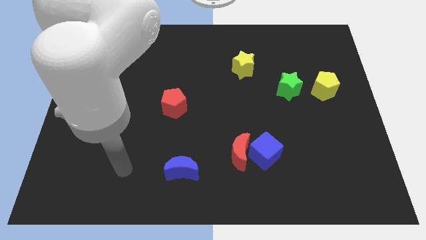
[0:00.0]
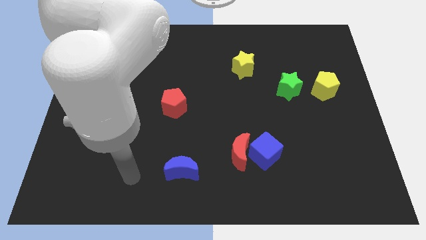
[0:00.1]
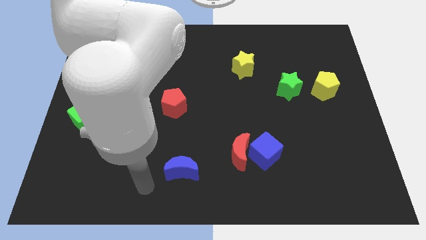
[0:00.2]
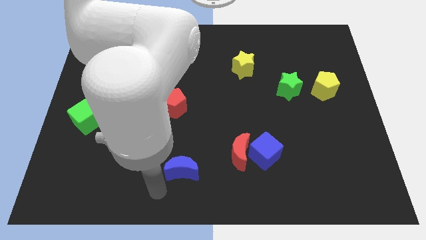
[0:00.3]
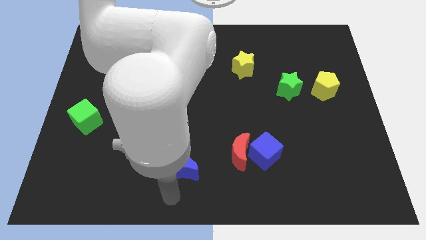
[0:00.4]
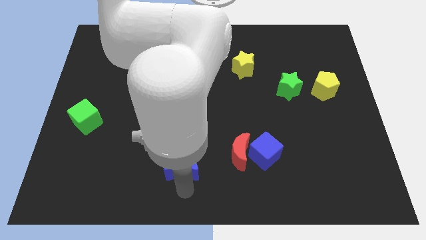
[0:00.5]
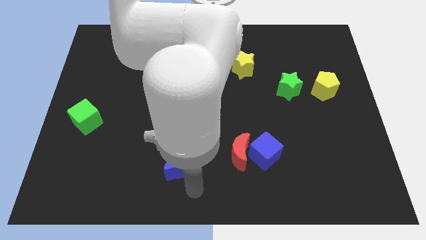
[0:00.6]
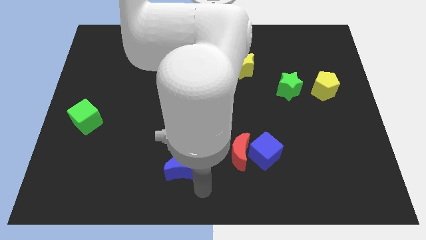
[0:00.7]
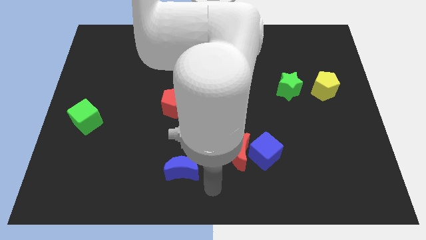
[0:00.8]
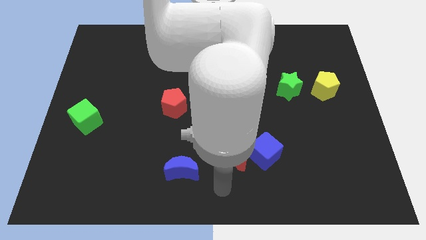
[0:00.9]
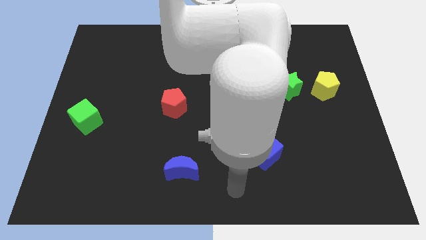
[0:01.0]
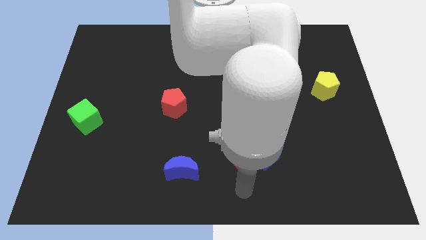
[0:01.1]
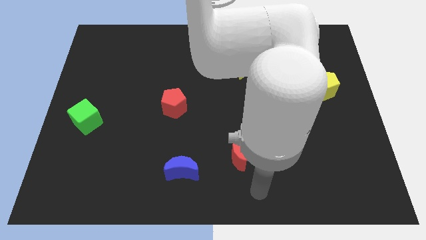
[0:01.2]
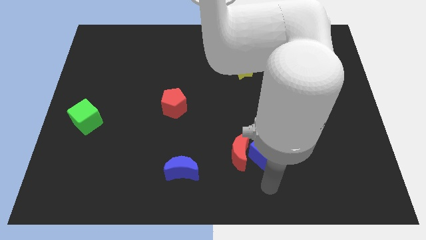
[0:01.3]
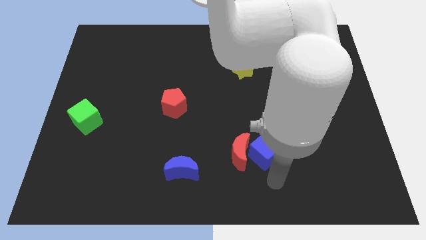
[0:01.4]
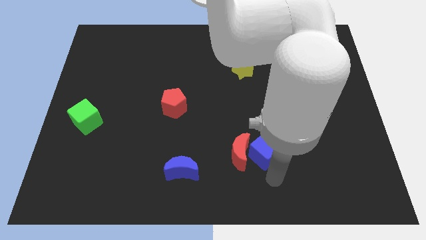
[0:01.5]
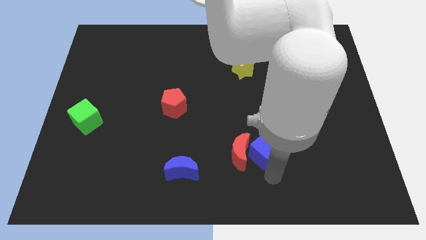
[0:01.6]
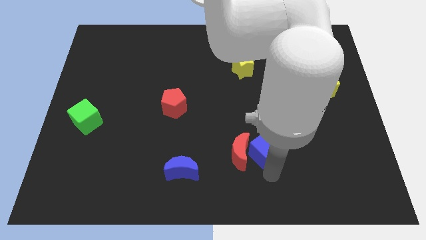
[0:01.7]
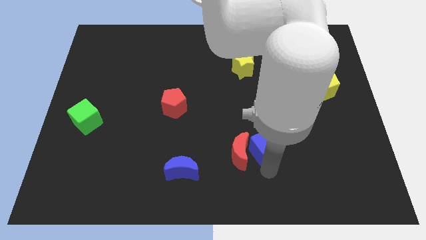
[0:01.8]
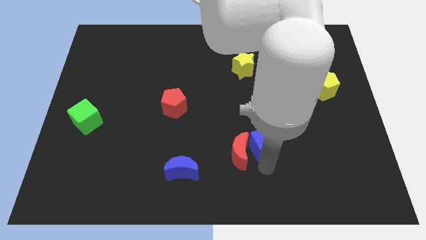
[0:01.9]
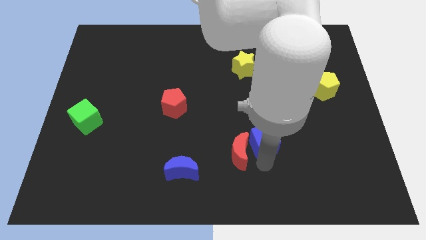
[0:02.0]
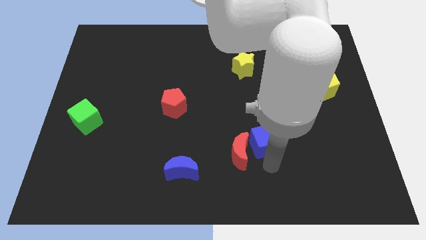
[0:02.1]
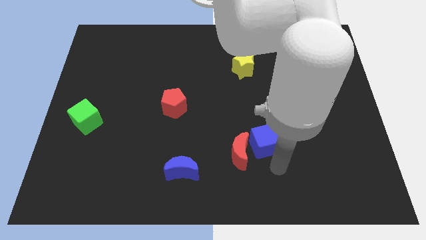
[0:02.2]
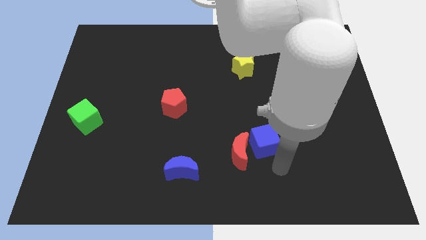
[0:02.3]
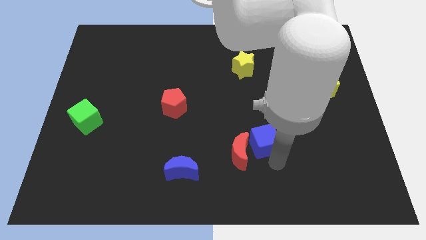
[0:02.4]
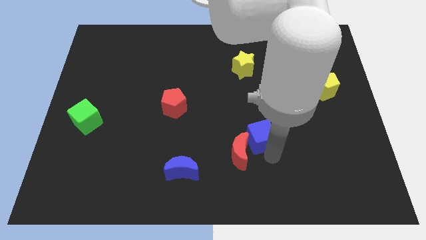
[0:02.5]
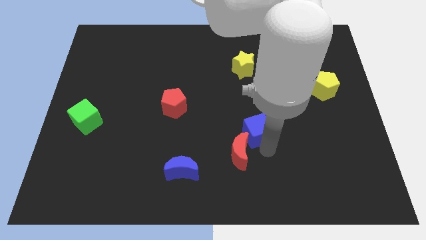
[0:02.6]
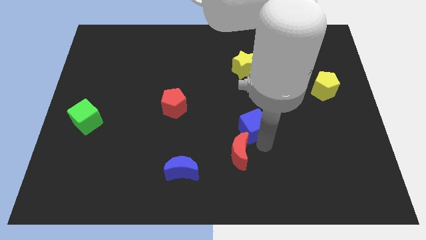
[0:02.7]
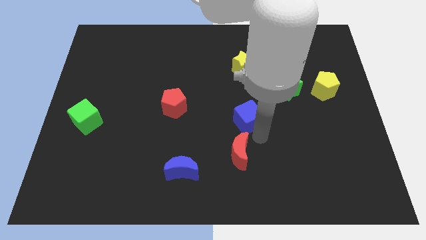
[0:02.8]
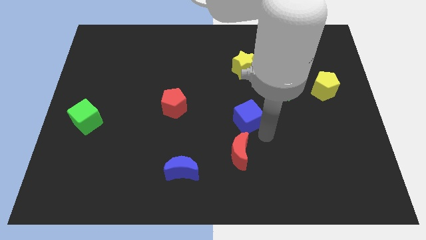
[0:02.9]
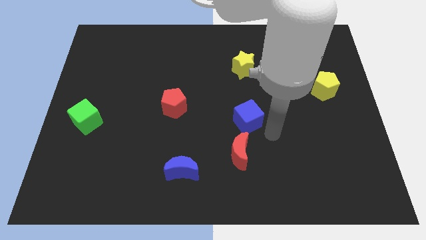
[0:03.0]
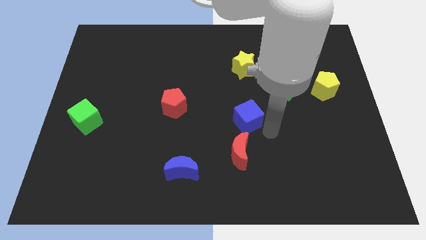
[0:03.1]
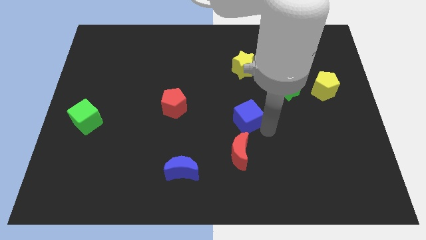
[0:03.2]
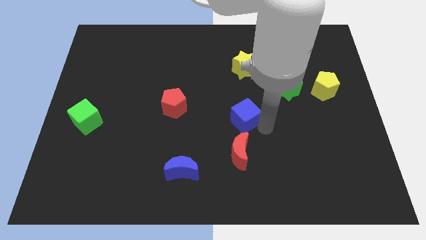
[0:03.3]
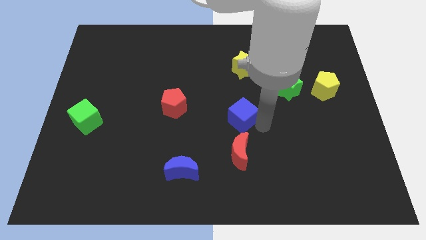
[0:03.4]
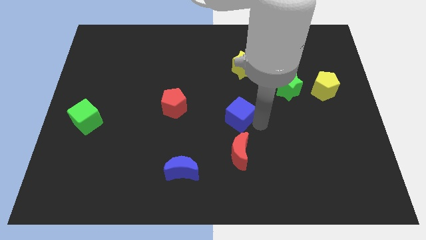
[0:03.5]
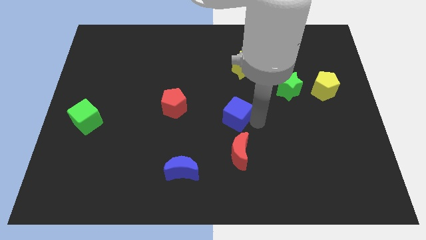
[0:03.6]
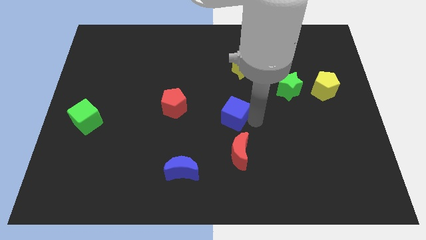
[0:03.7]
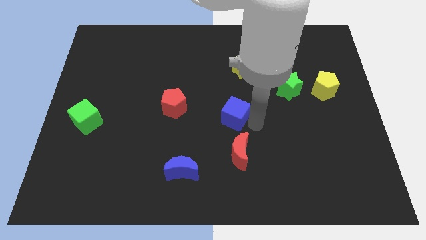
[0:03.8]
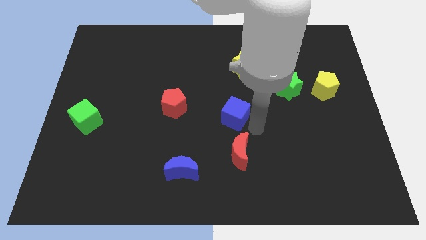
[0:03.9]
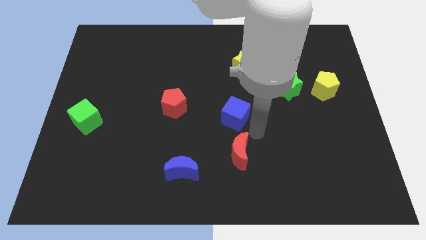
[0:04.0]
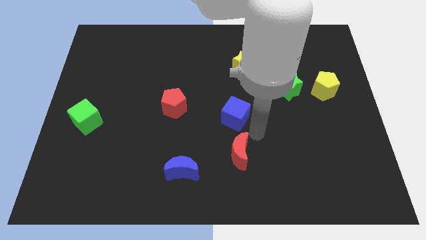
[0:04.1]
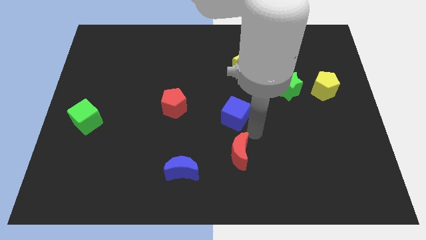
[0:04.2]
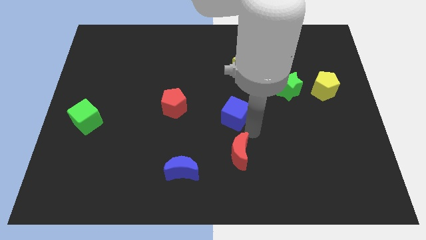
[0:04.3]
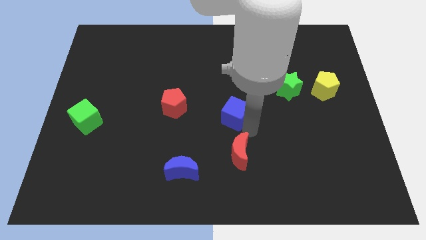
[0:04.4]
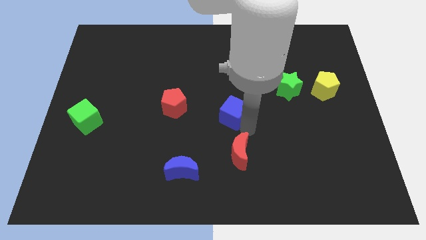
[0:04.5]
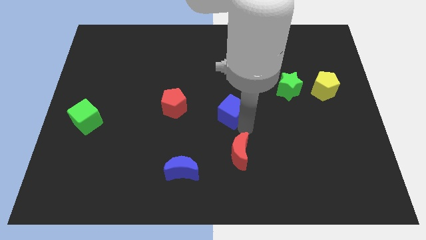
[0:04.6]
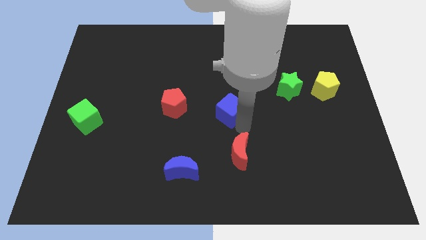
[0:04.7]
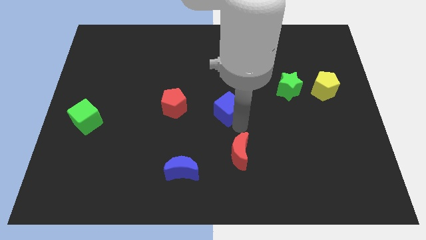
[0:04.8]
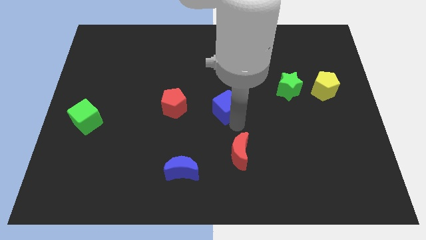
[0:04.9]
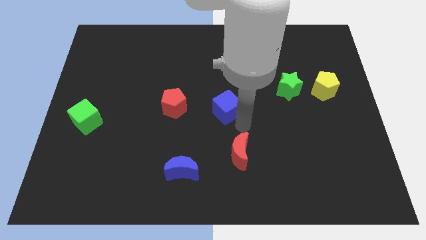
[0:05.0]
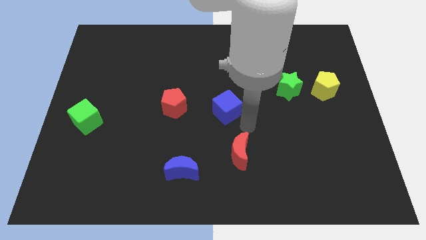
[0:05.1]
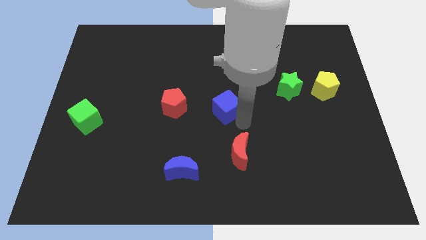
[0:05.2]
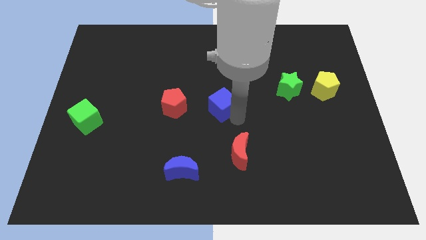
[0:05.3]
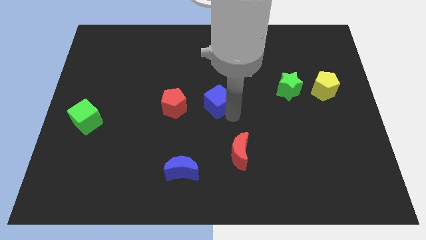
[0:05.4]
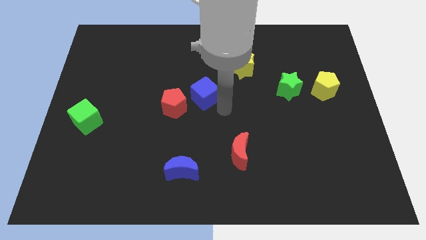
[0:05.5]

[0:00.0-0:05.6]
push the blue cube up and to the left

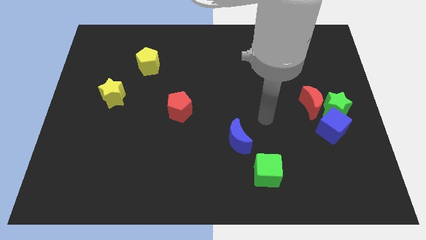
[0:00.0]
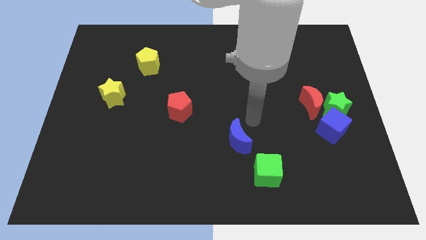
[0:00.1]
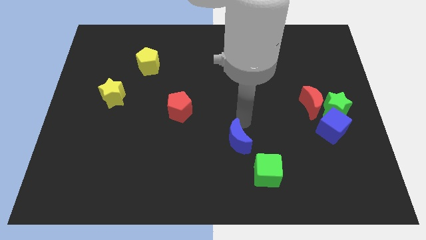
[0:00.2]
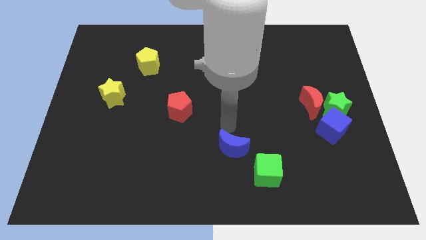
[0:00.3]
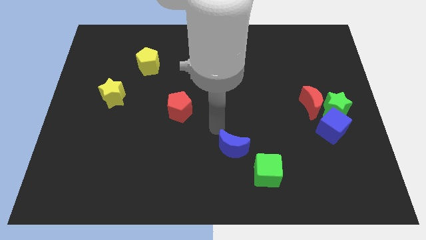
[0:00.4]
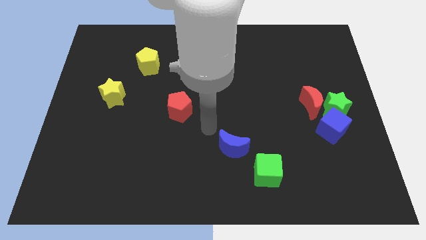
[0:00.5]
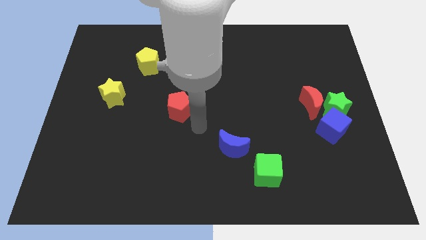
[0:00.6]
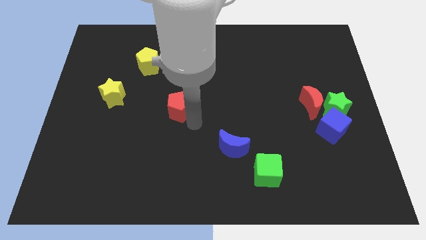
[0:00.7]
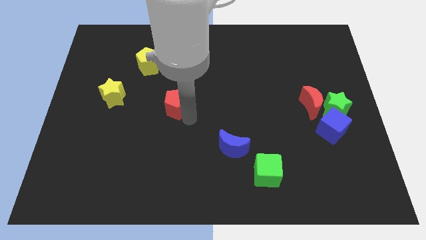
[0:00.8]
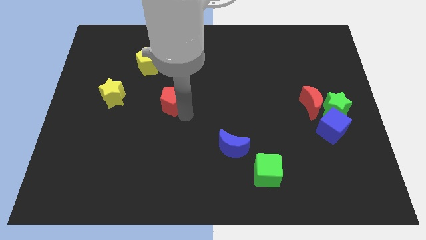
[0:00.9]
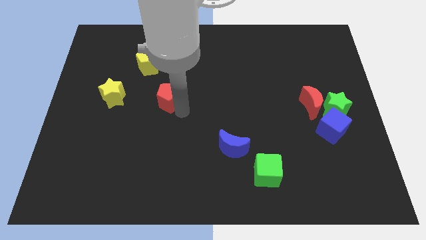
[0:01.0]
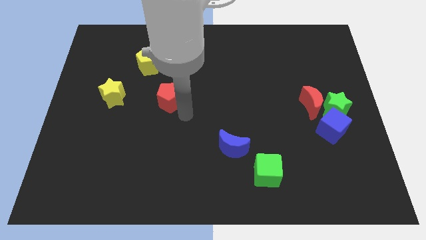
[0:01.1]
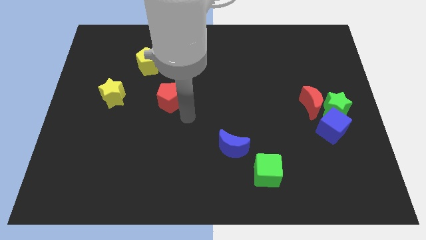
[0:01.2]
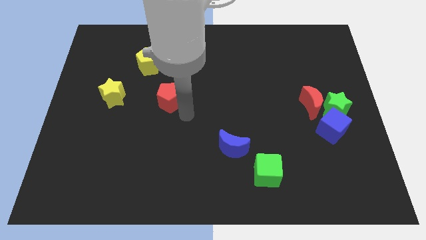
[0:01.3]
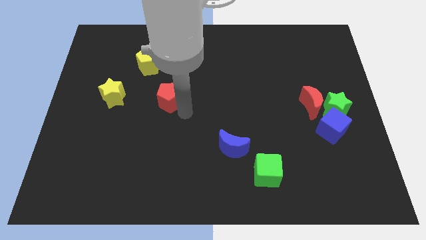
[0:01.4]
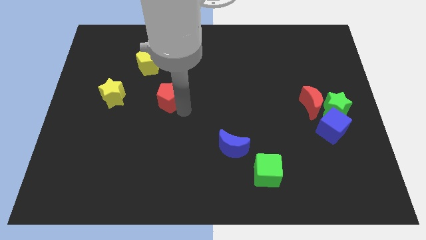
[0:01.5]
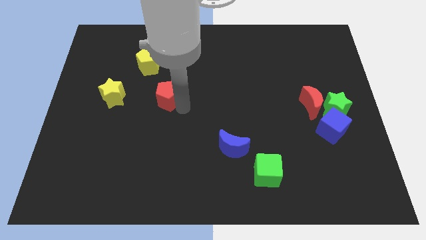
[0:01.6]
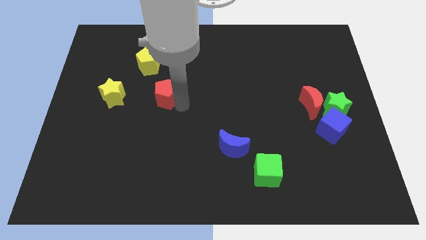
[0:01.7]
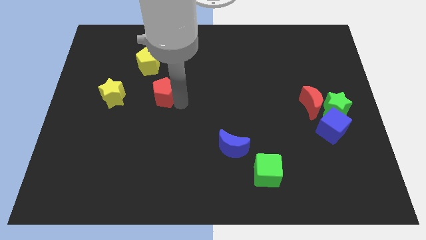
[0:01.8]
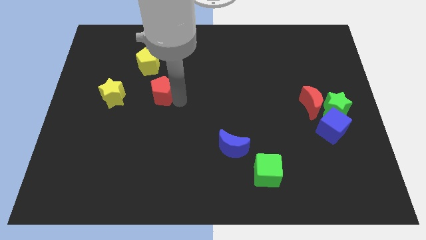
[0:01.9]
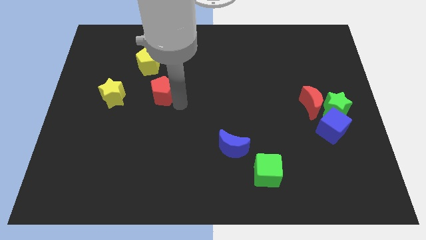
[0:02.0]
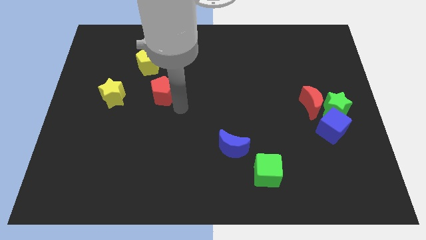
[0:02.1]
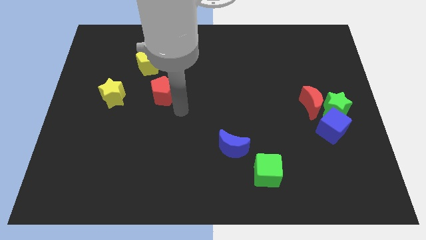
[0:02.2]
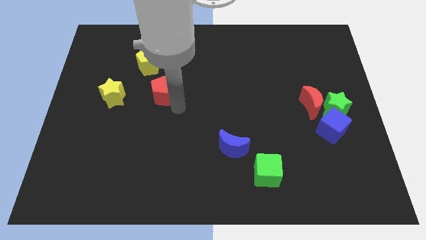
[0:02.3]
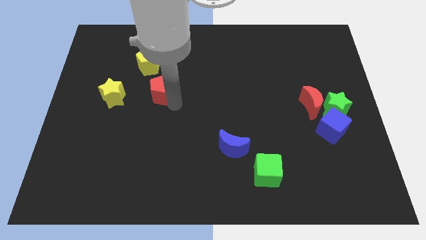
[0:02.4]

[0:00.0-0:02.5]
slightly move the red pentagon diagonally up and to the left

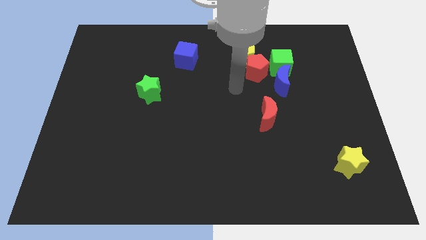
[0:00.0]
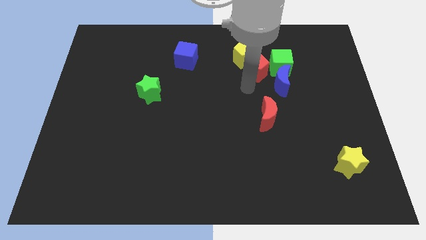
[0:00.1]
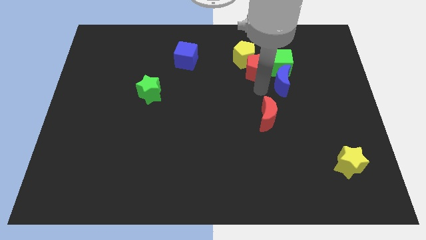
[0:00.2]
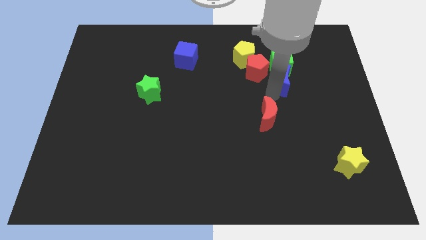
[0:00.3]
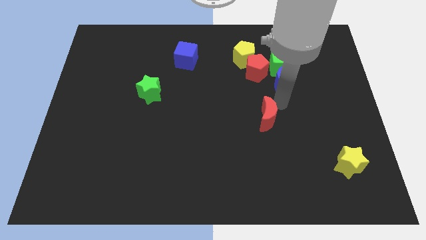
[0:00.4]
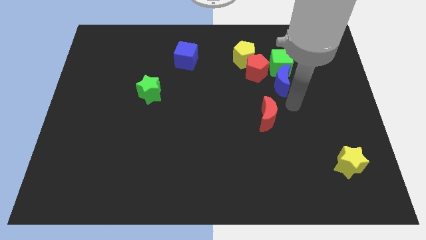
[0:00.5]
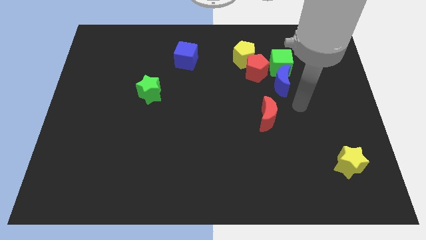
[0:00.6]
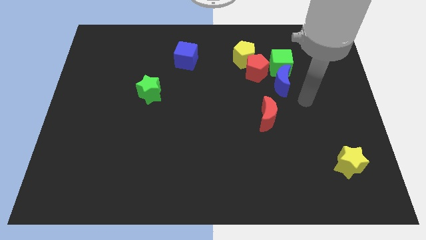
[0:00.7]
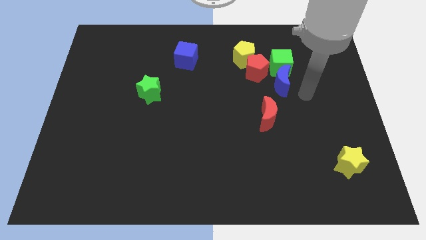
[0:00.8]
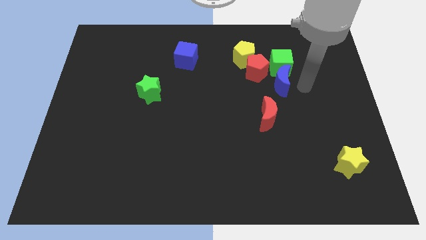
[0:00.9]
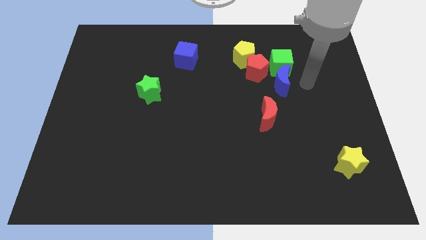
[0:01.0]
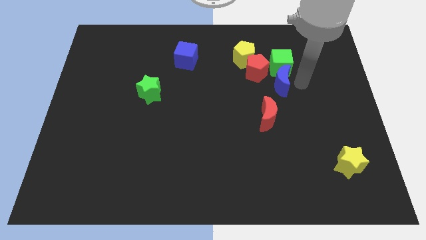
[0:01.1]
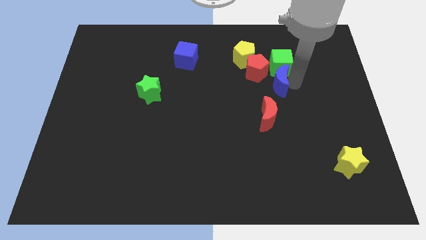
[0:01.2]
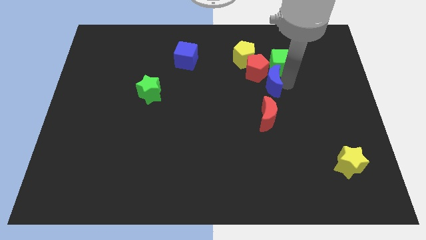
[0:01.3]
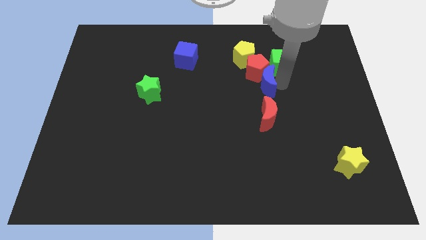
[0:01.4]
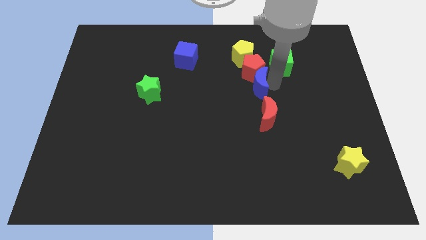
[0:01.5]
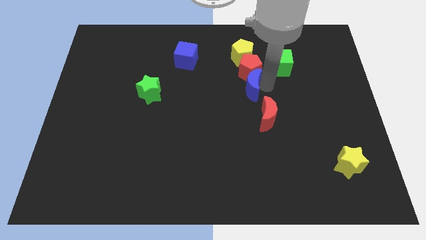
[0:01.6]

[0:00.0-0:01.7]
move the blue moon a little to the left
